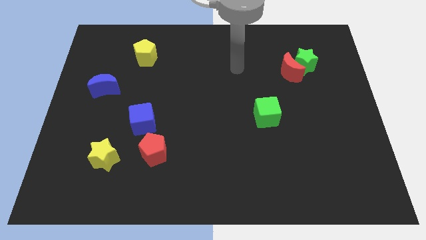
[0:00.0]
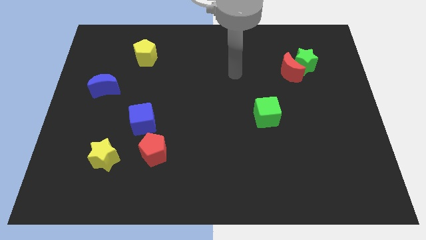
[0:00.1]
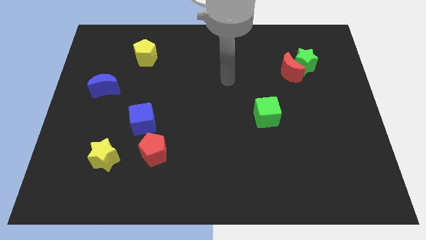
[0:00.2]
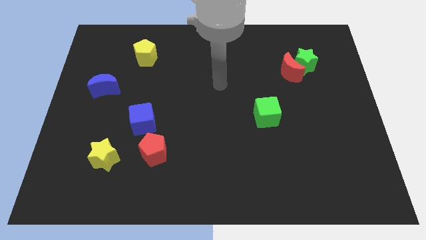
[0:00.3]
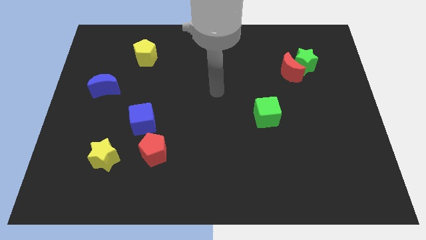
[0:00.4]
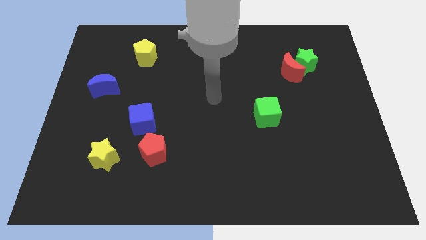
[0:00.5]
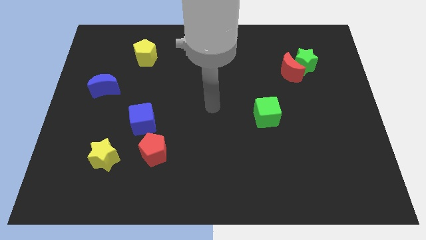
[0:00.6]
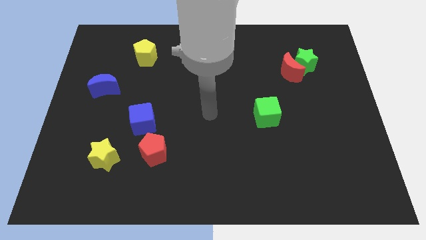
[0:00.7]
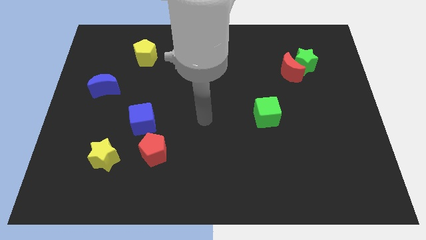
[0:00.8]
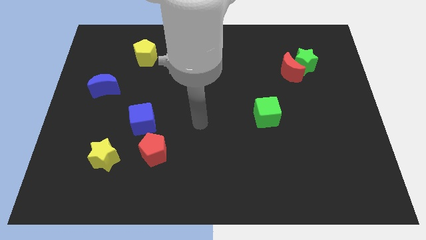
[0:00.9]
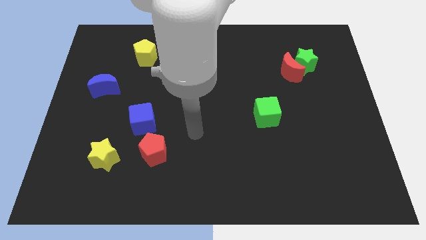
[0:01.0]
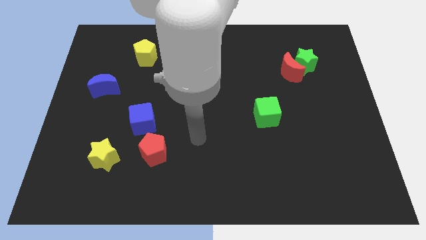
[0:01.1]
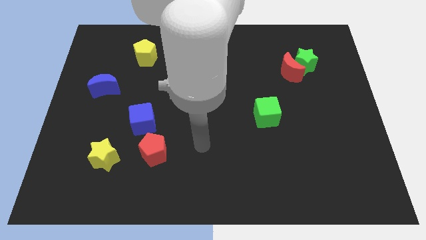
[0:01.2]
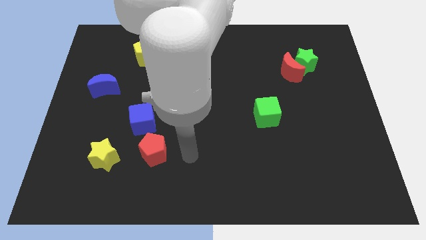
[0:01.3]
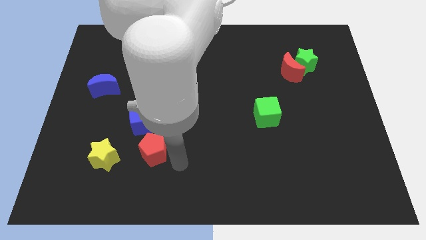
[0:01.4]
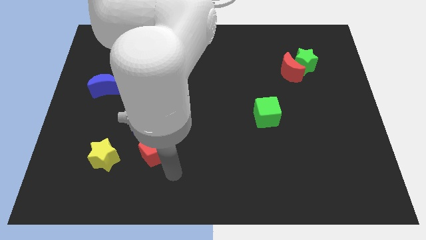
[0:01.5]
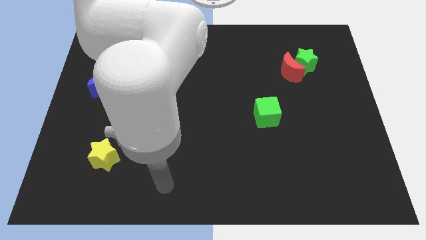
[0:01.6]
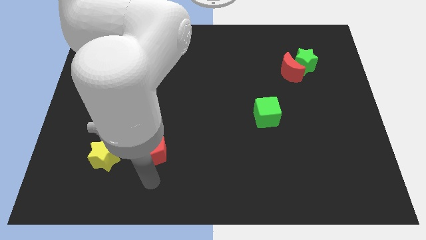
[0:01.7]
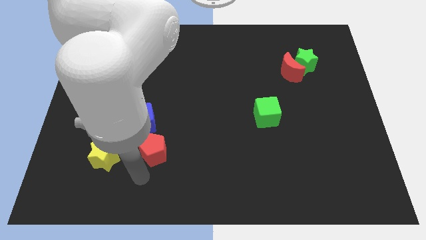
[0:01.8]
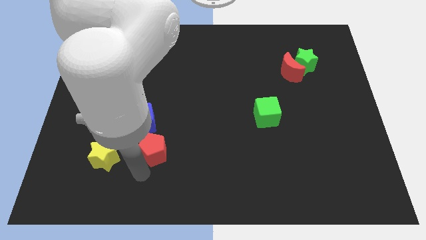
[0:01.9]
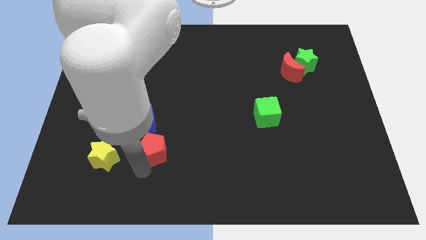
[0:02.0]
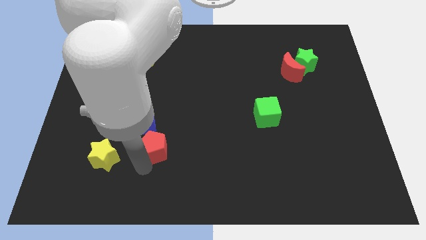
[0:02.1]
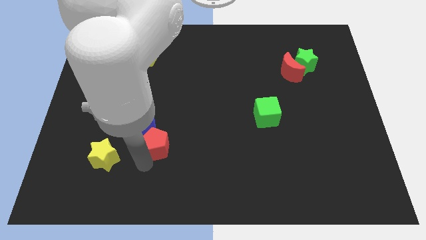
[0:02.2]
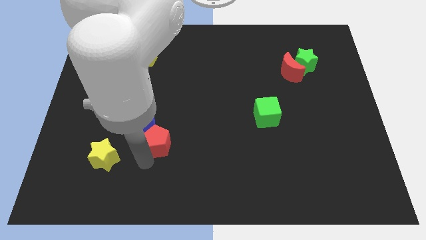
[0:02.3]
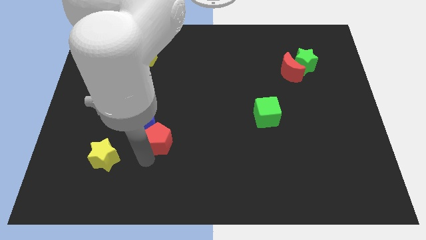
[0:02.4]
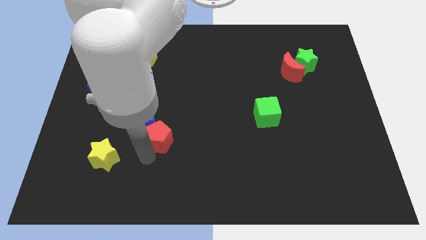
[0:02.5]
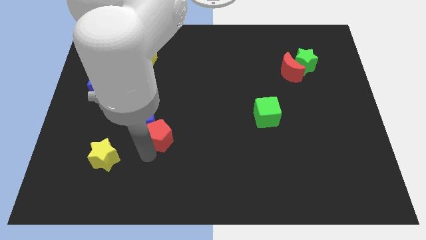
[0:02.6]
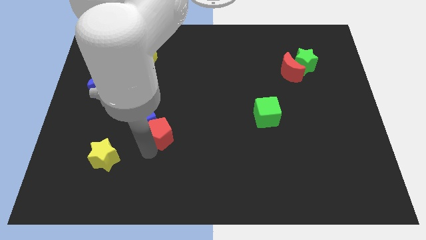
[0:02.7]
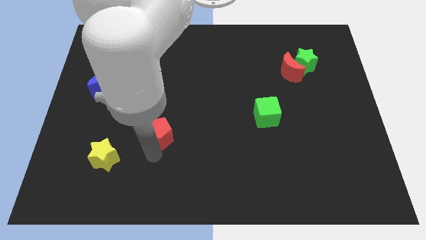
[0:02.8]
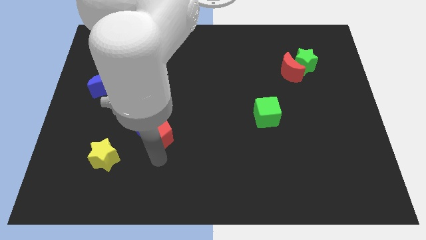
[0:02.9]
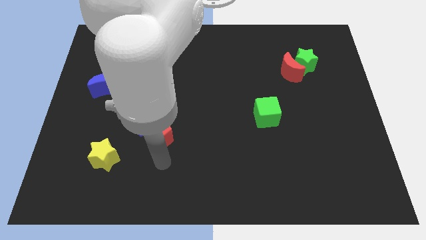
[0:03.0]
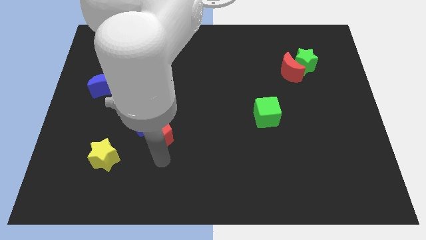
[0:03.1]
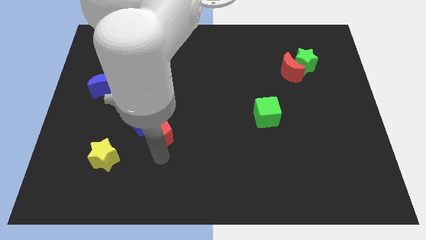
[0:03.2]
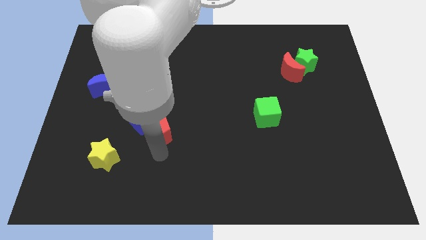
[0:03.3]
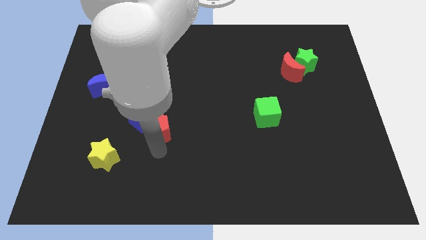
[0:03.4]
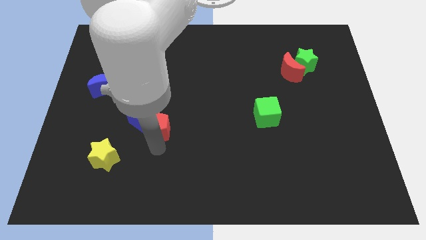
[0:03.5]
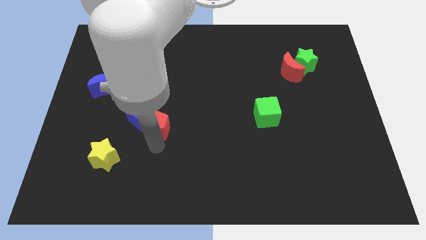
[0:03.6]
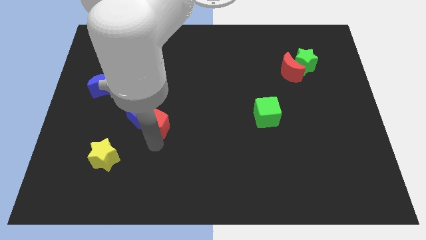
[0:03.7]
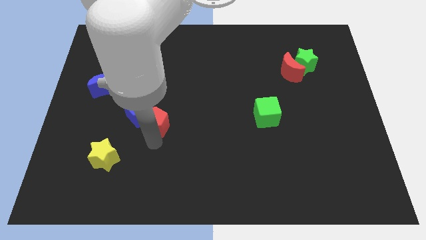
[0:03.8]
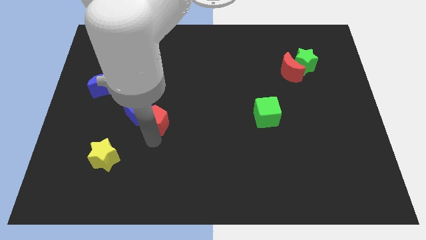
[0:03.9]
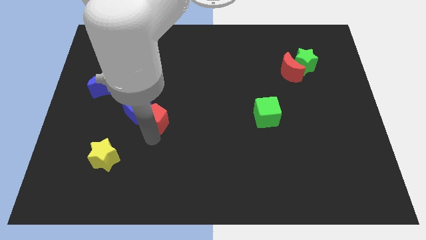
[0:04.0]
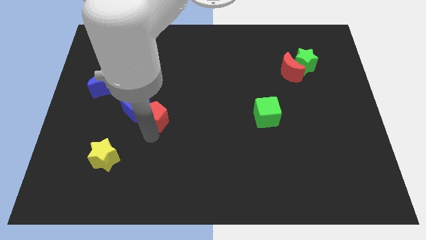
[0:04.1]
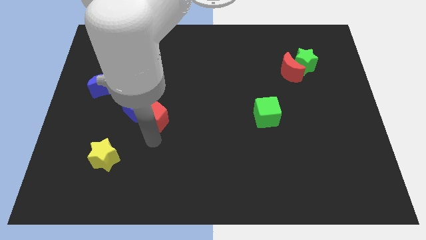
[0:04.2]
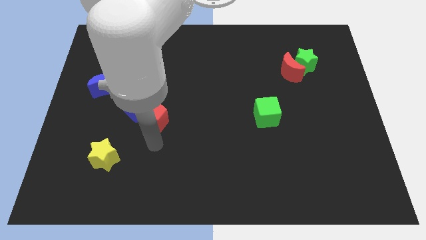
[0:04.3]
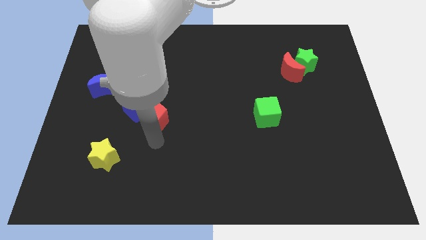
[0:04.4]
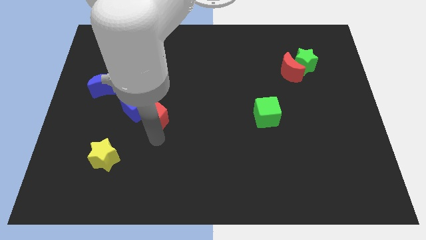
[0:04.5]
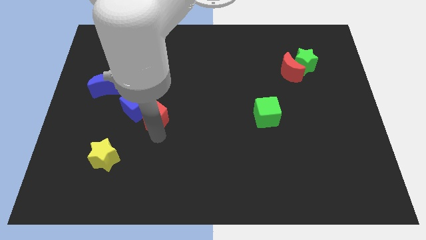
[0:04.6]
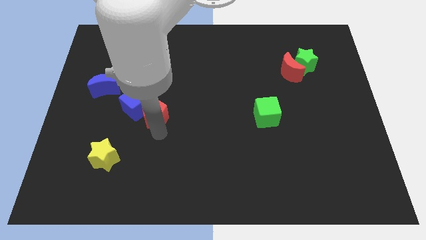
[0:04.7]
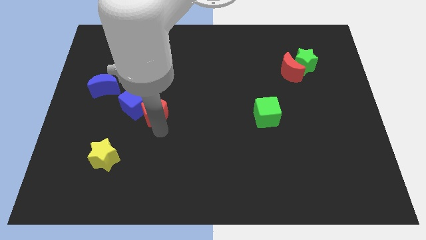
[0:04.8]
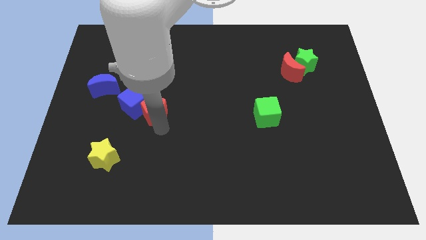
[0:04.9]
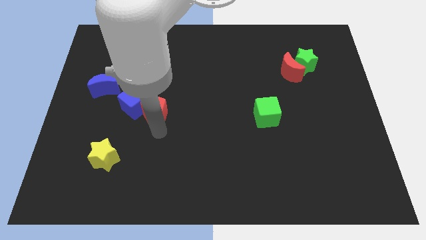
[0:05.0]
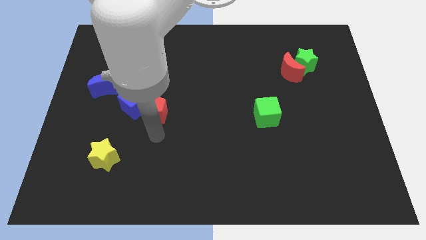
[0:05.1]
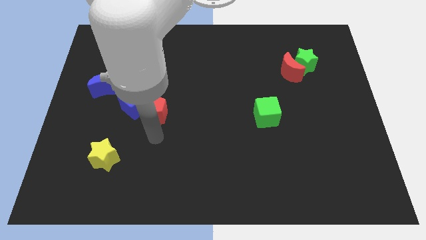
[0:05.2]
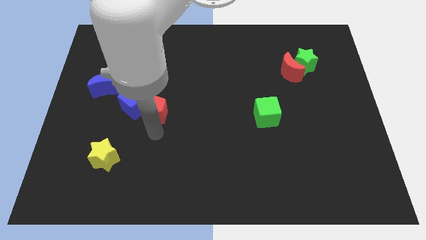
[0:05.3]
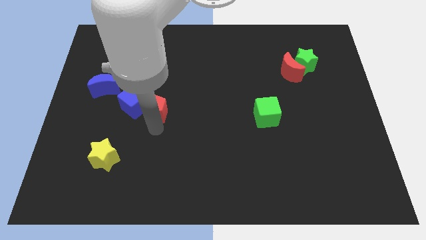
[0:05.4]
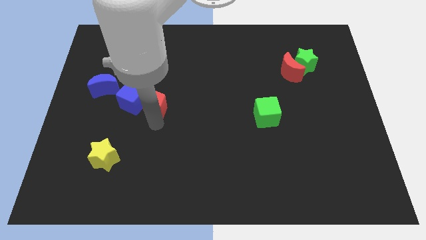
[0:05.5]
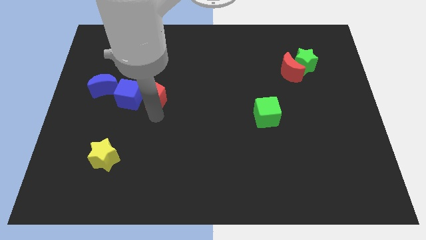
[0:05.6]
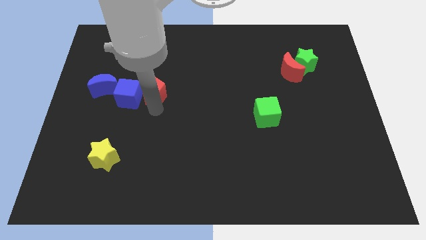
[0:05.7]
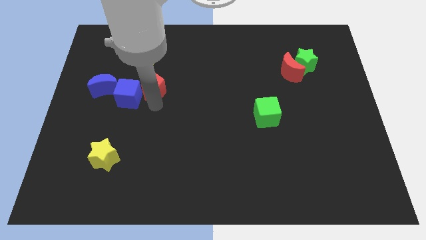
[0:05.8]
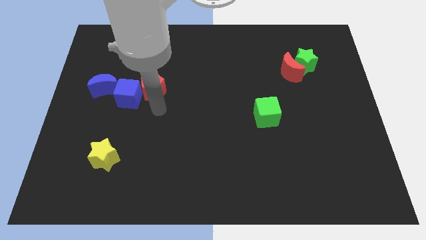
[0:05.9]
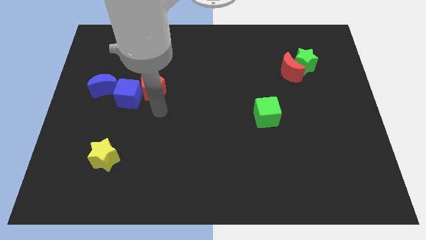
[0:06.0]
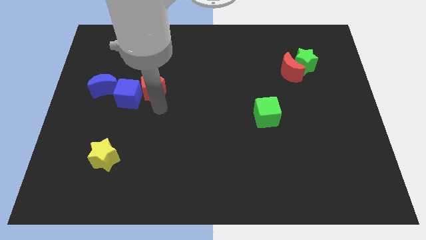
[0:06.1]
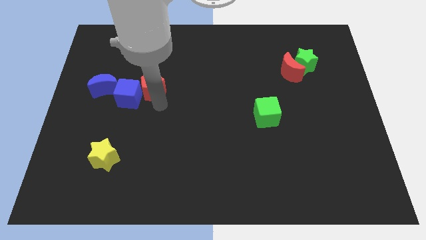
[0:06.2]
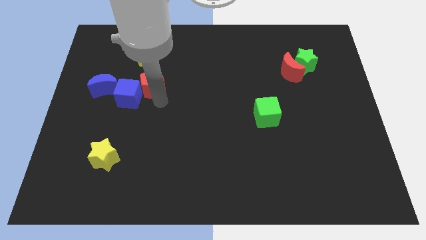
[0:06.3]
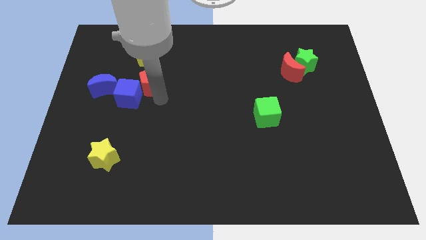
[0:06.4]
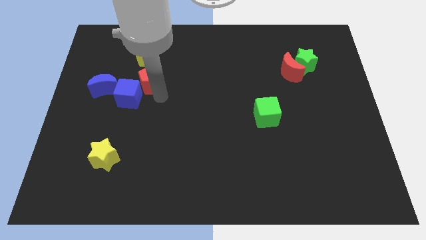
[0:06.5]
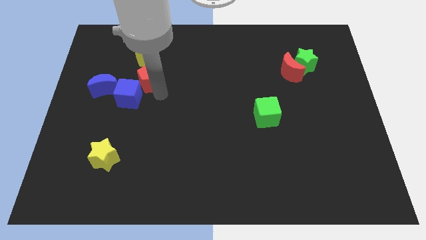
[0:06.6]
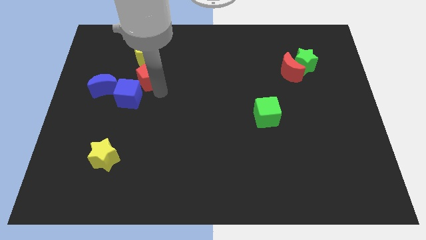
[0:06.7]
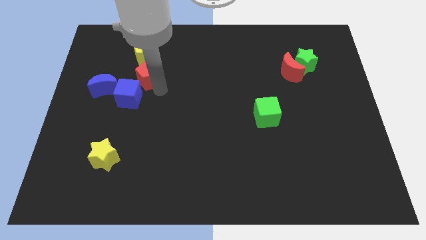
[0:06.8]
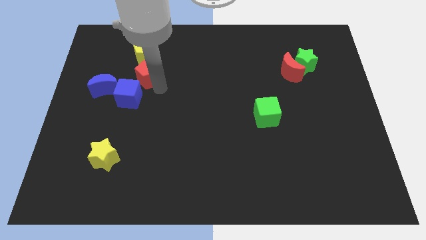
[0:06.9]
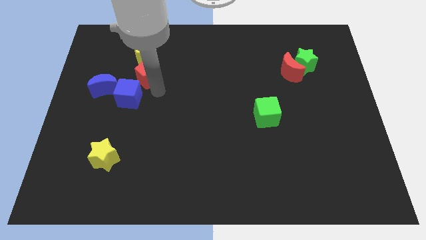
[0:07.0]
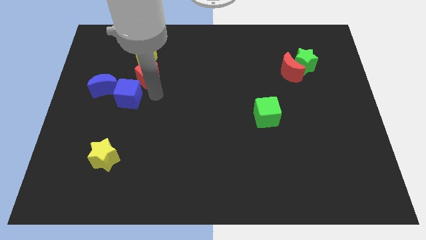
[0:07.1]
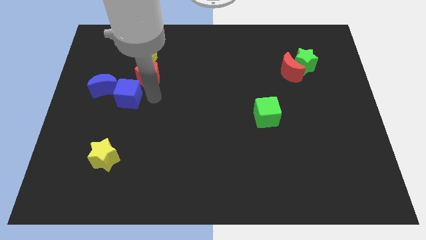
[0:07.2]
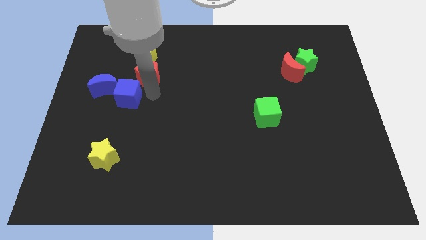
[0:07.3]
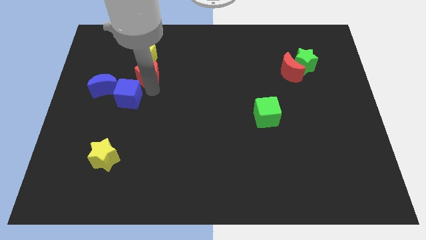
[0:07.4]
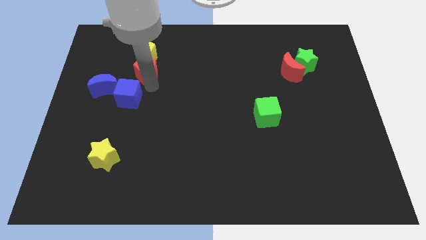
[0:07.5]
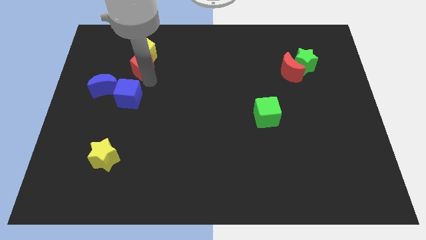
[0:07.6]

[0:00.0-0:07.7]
put the red pentagon towards the yellow pentagon
